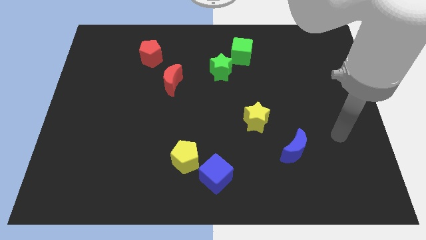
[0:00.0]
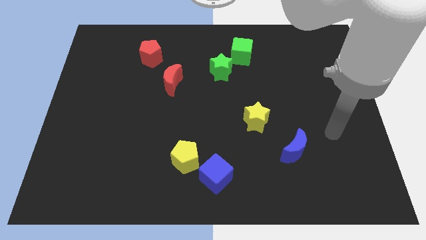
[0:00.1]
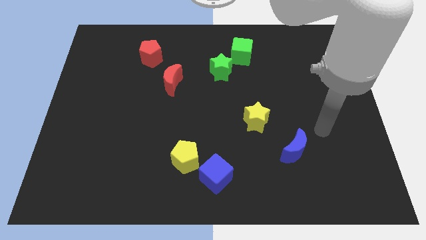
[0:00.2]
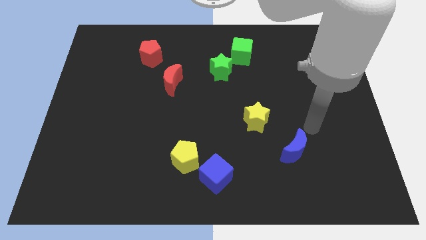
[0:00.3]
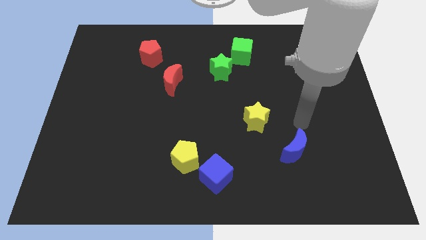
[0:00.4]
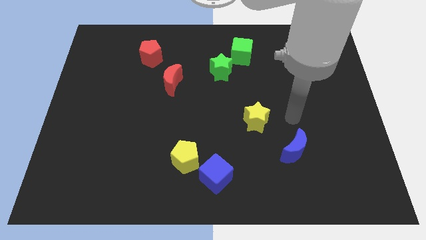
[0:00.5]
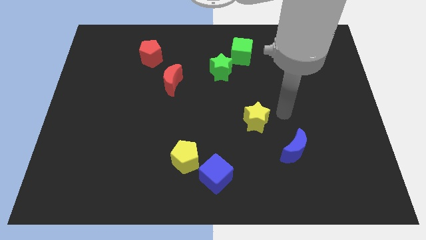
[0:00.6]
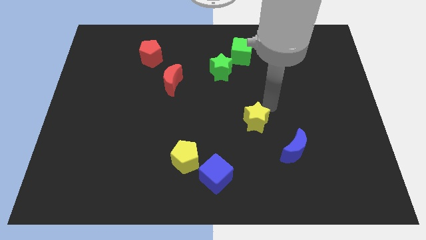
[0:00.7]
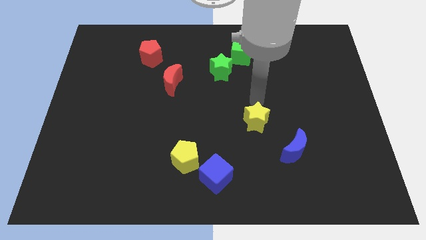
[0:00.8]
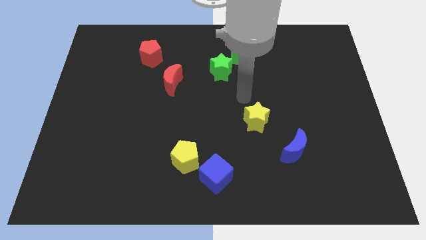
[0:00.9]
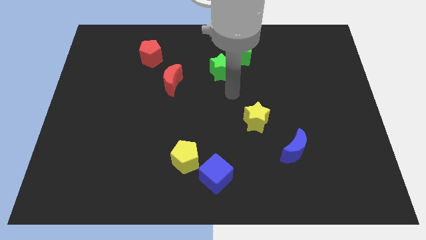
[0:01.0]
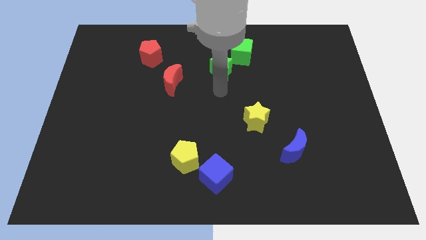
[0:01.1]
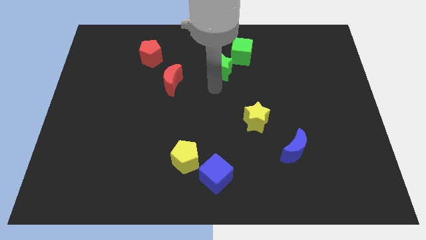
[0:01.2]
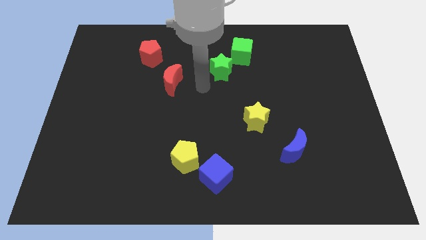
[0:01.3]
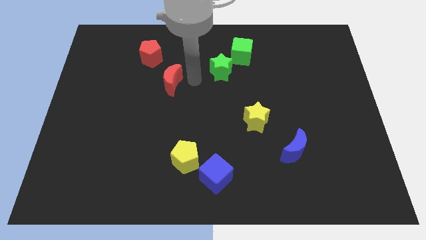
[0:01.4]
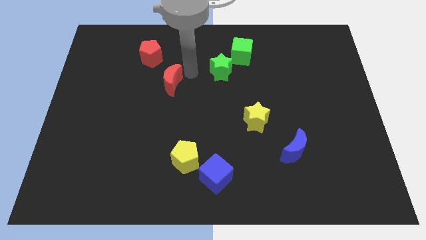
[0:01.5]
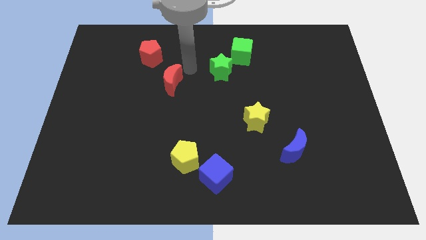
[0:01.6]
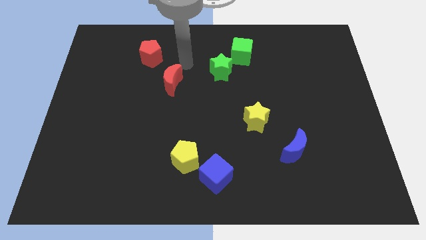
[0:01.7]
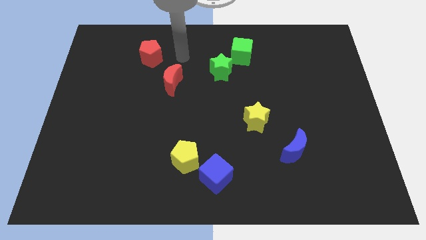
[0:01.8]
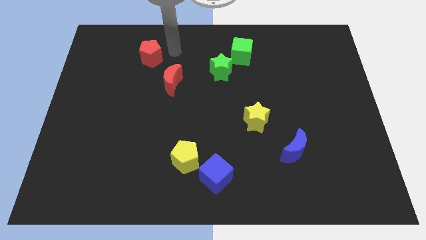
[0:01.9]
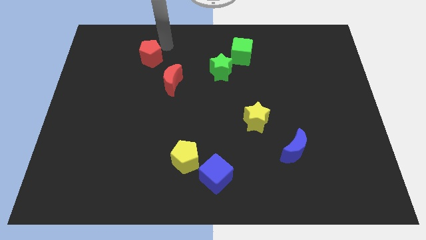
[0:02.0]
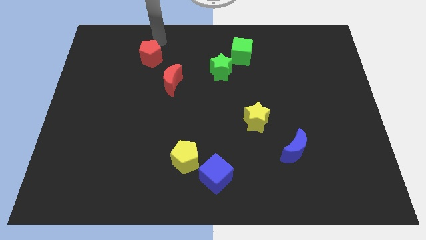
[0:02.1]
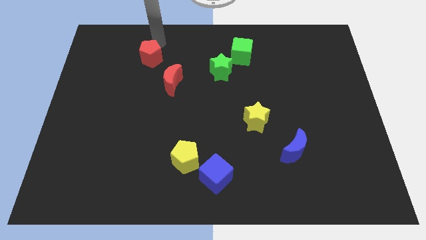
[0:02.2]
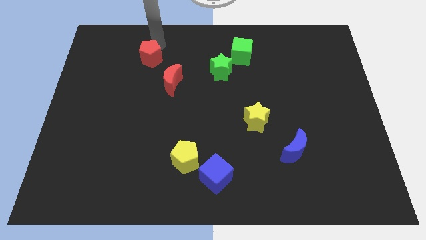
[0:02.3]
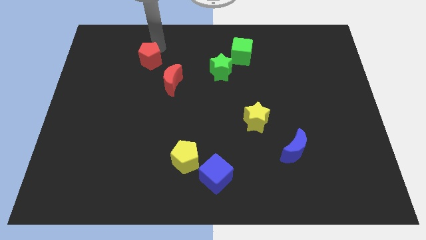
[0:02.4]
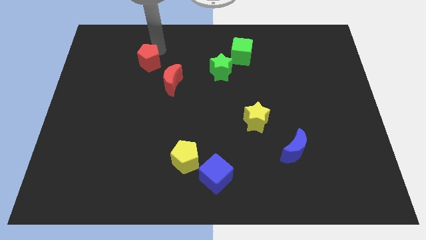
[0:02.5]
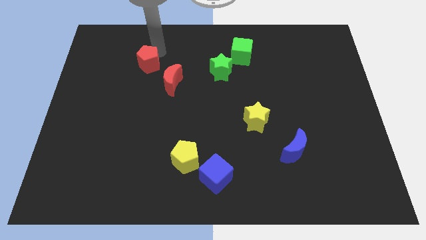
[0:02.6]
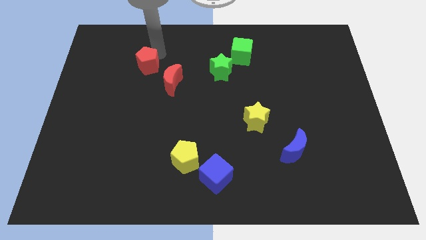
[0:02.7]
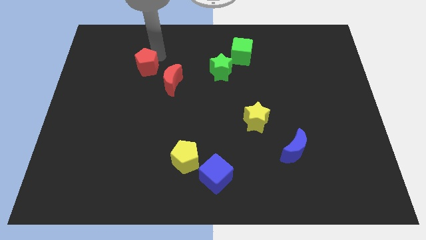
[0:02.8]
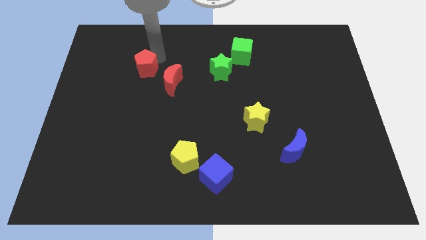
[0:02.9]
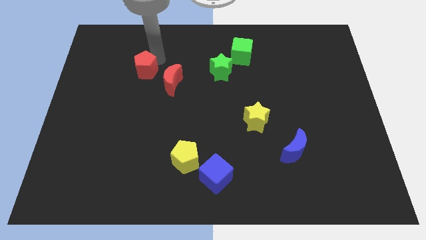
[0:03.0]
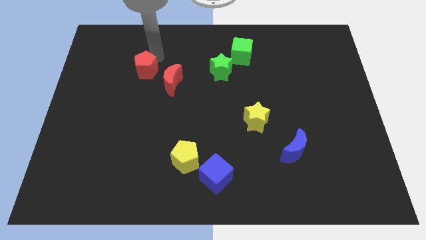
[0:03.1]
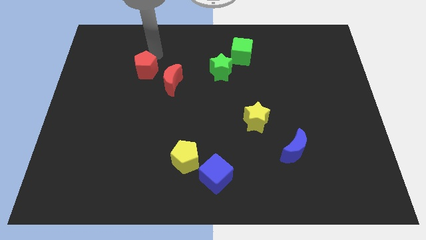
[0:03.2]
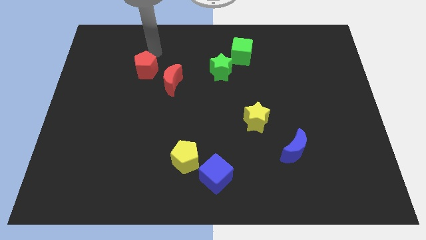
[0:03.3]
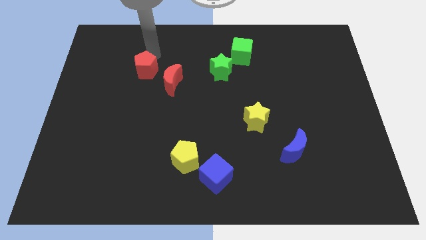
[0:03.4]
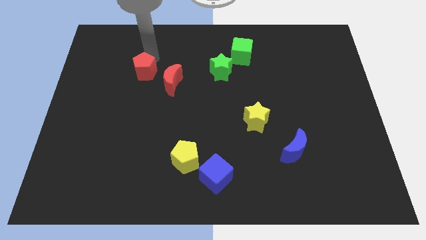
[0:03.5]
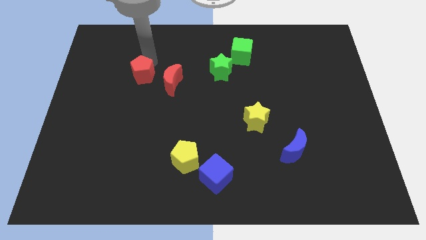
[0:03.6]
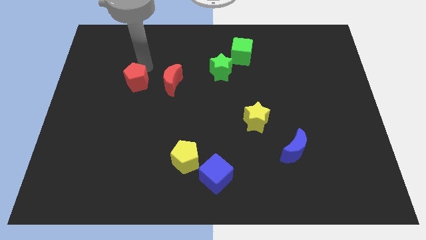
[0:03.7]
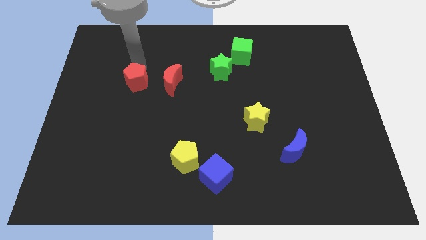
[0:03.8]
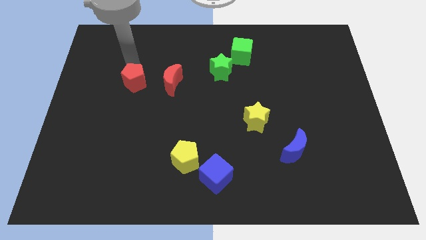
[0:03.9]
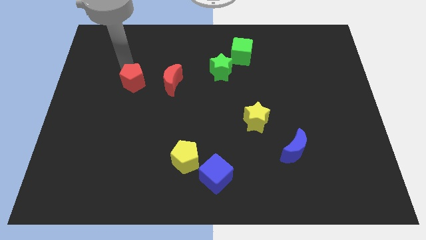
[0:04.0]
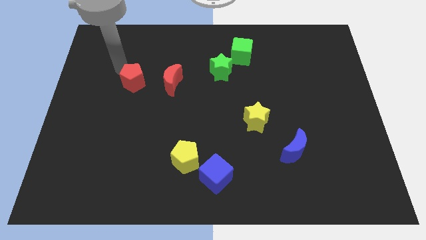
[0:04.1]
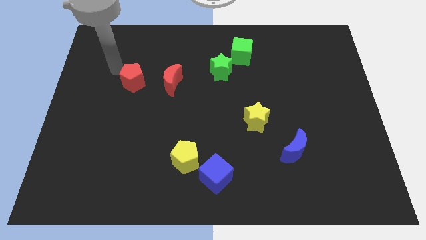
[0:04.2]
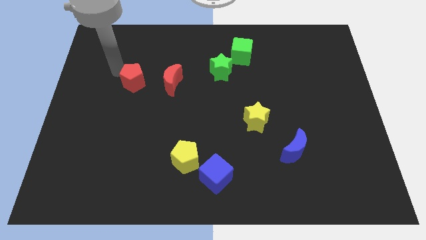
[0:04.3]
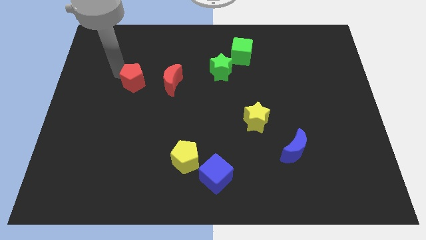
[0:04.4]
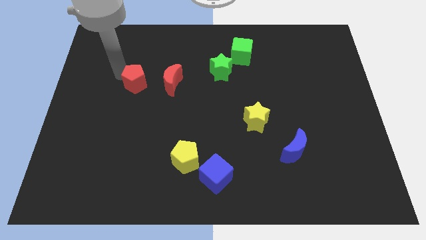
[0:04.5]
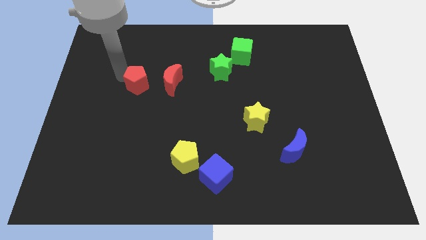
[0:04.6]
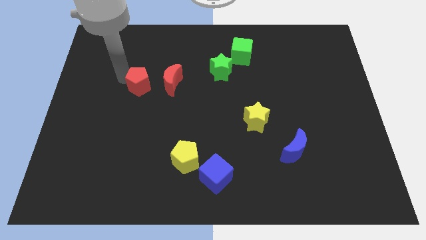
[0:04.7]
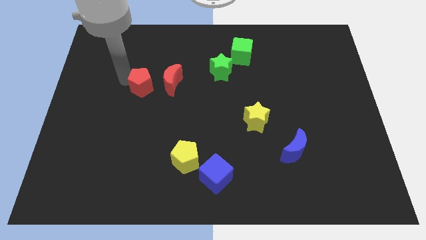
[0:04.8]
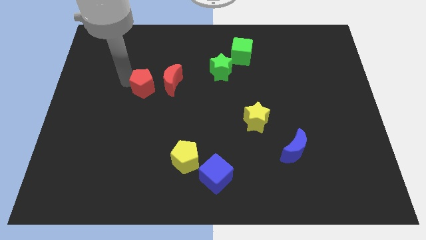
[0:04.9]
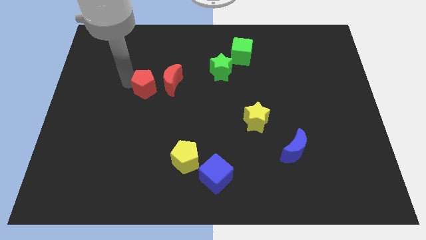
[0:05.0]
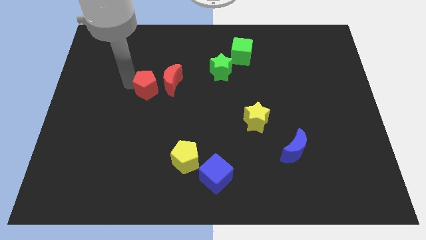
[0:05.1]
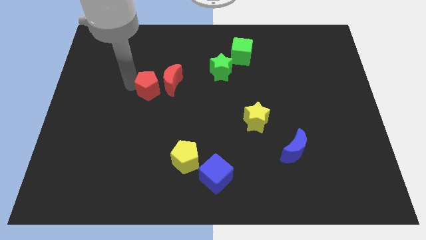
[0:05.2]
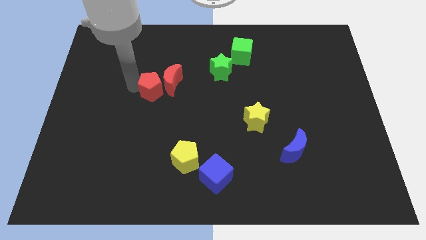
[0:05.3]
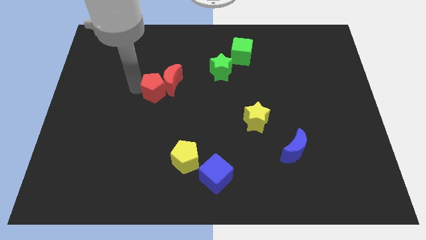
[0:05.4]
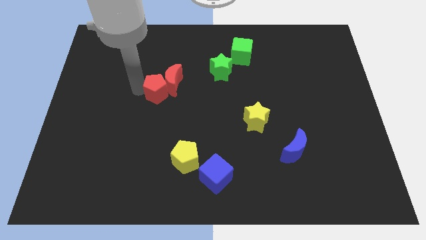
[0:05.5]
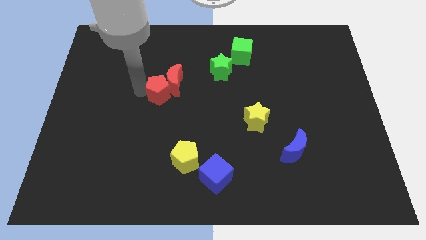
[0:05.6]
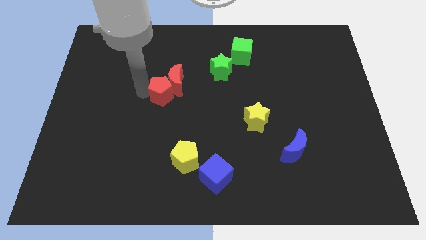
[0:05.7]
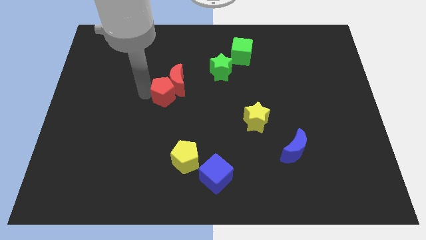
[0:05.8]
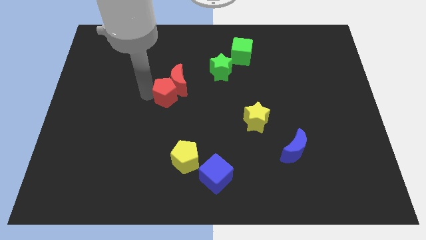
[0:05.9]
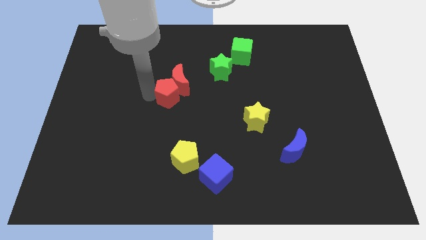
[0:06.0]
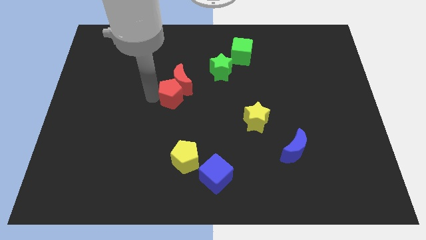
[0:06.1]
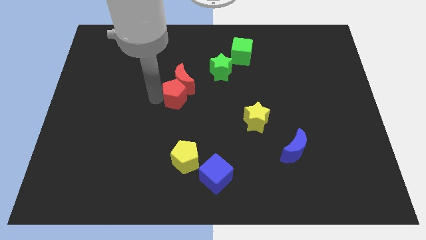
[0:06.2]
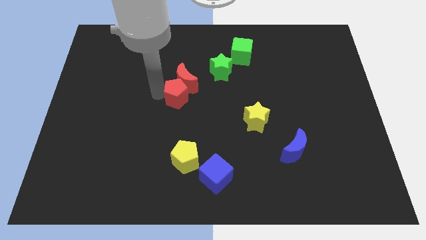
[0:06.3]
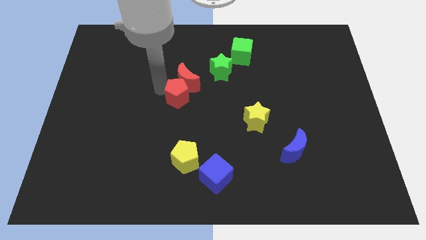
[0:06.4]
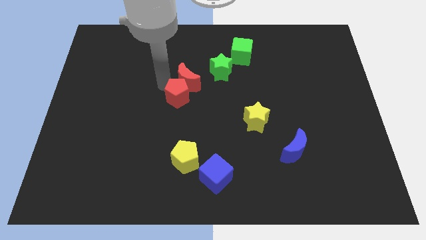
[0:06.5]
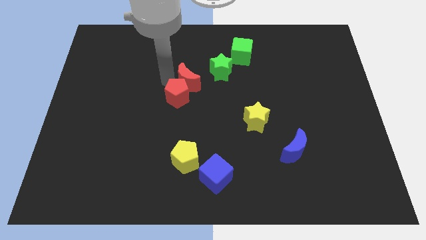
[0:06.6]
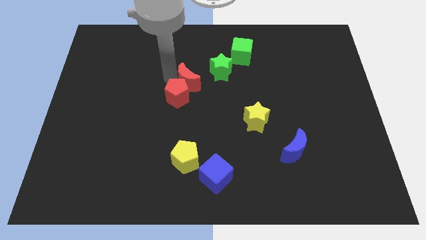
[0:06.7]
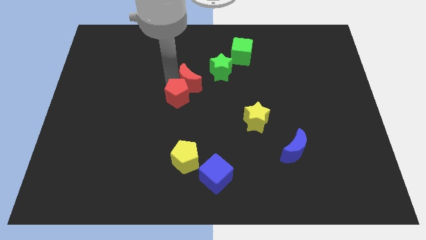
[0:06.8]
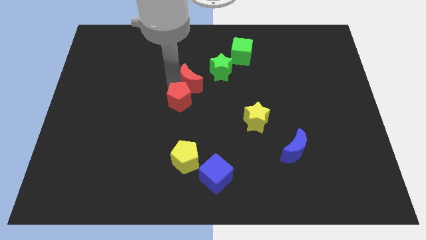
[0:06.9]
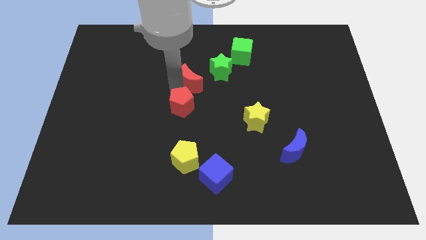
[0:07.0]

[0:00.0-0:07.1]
move the red pentagon to the top side of the yellow pentagon
